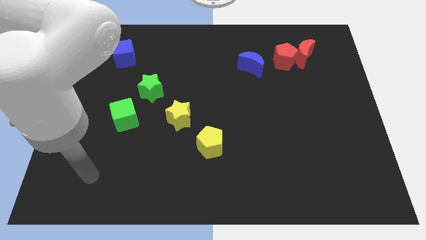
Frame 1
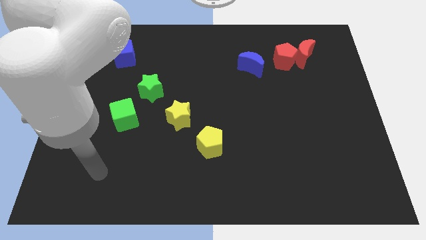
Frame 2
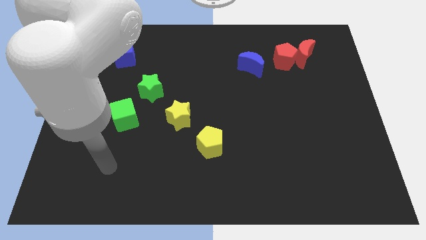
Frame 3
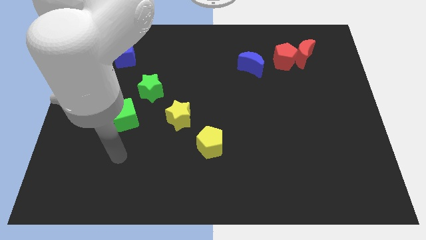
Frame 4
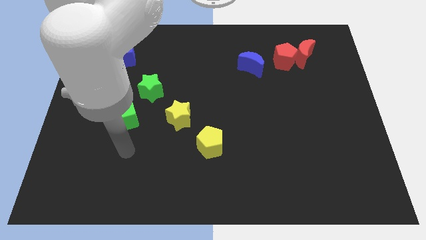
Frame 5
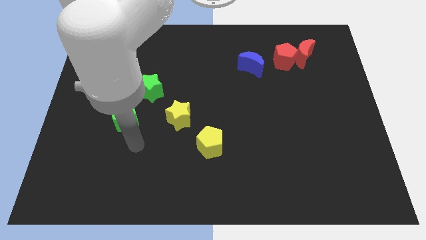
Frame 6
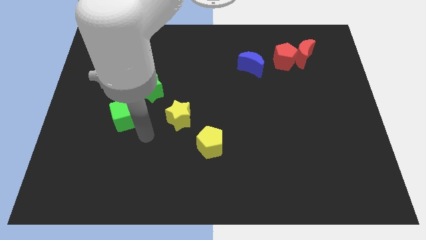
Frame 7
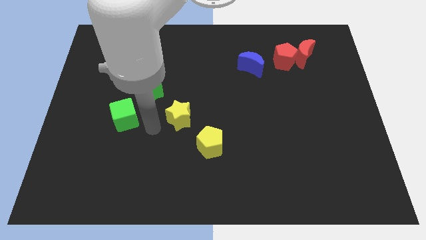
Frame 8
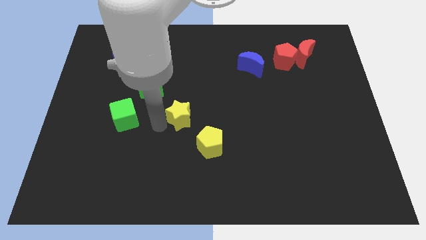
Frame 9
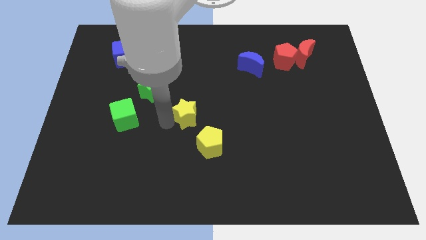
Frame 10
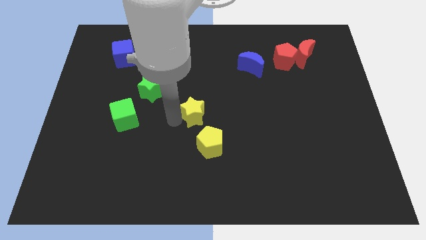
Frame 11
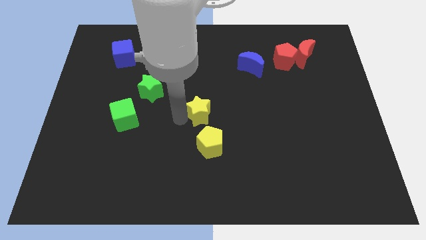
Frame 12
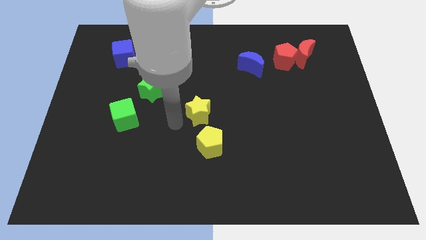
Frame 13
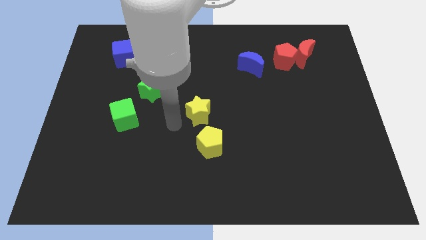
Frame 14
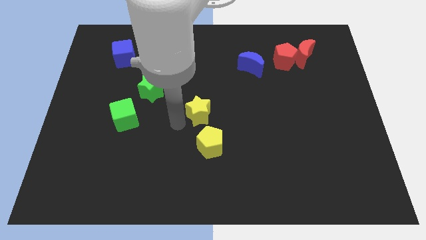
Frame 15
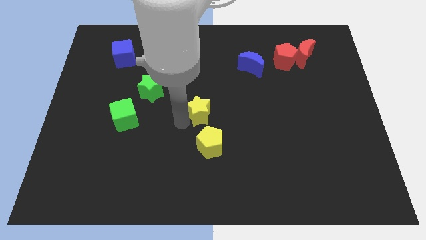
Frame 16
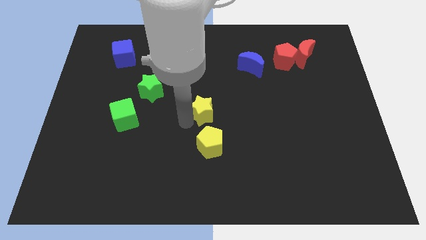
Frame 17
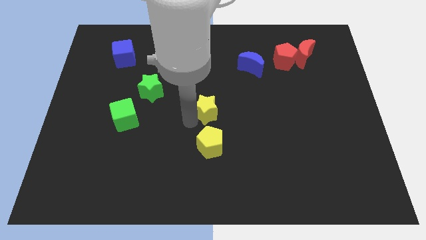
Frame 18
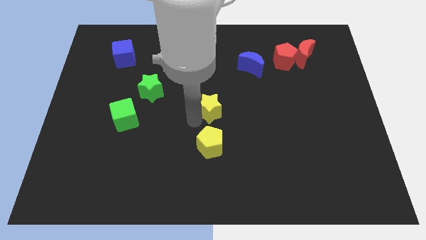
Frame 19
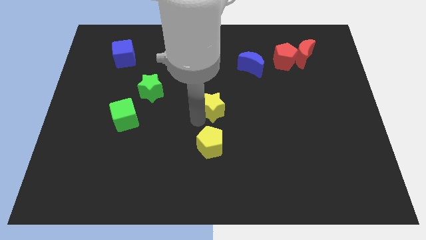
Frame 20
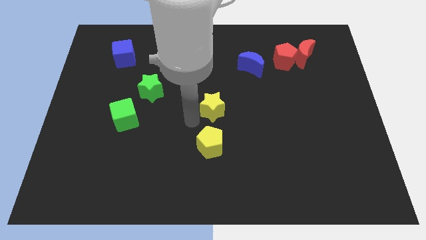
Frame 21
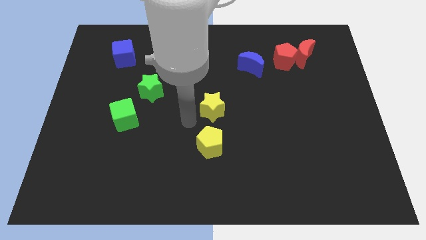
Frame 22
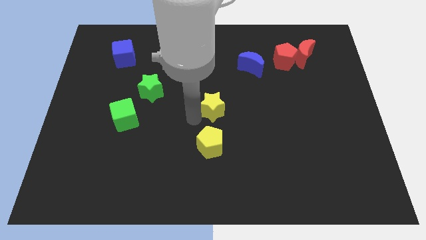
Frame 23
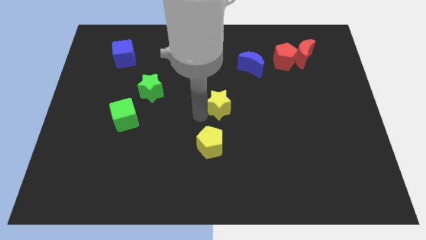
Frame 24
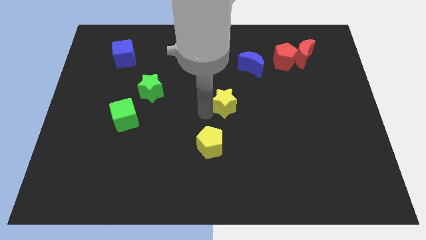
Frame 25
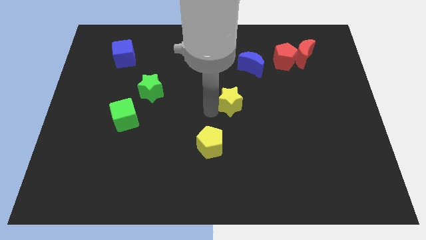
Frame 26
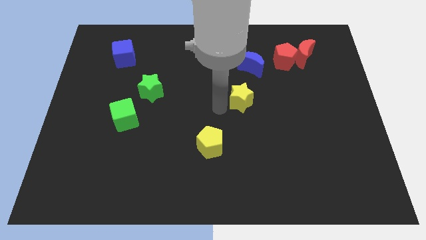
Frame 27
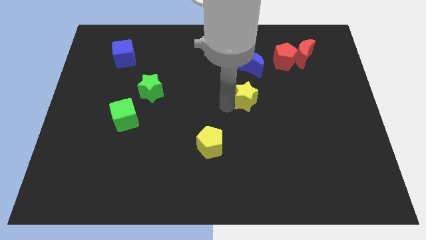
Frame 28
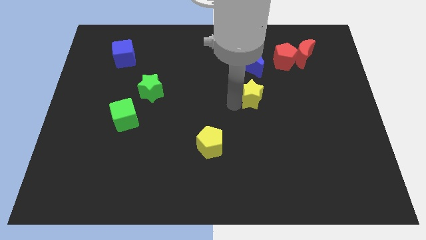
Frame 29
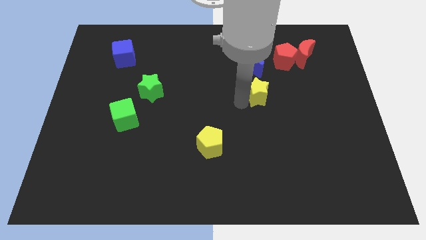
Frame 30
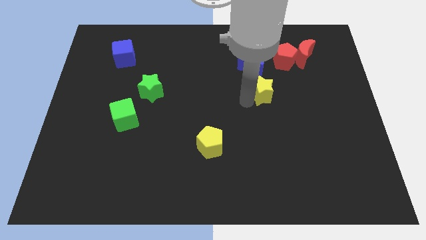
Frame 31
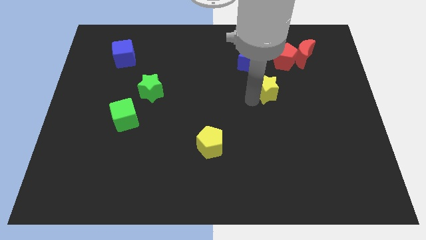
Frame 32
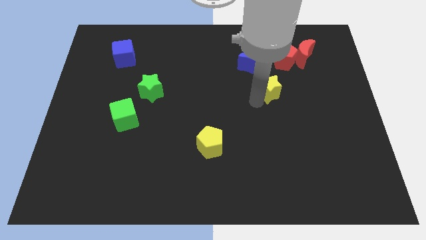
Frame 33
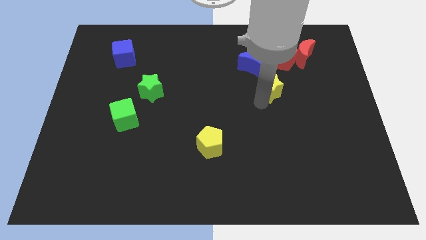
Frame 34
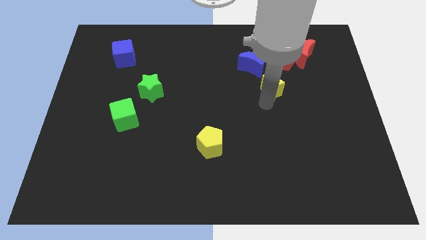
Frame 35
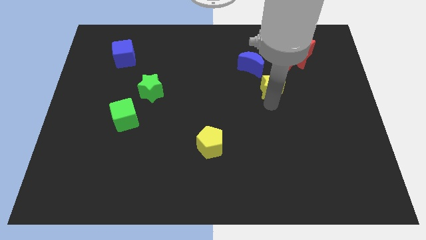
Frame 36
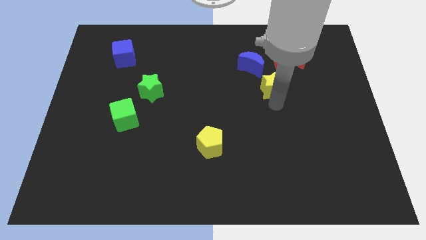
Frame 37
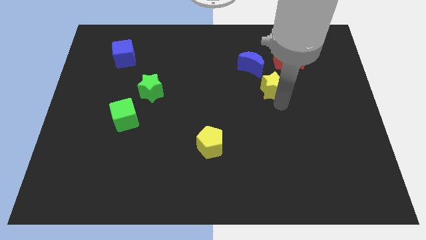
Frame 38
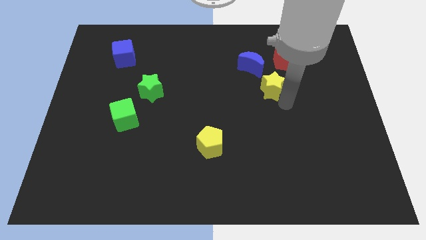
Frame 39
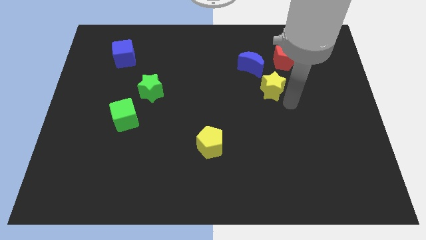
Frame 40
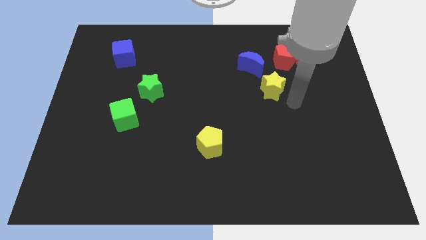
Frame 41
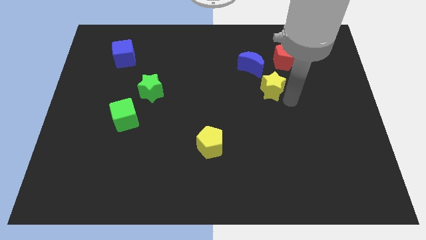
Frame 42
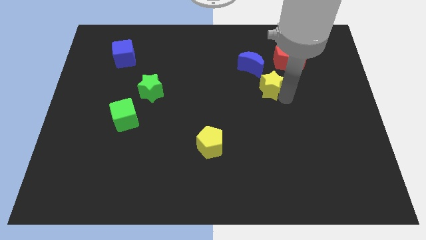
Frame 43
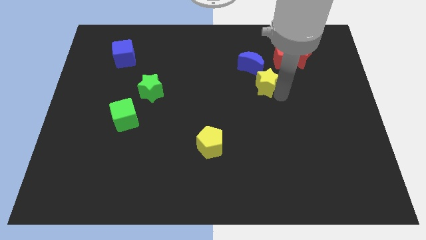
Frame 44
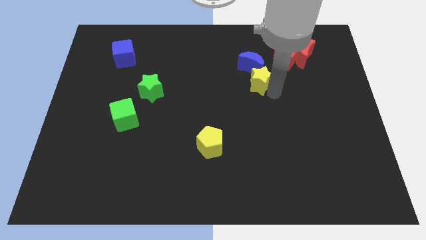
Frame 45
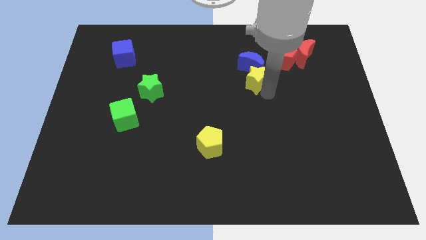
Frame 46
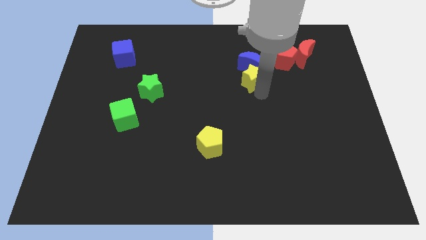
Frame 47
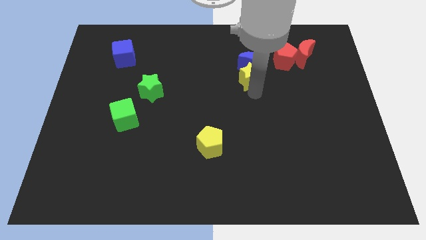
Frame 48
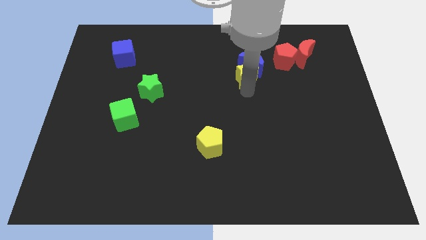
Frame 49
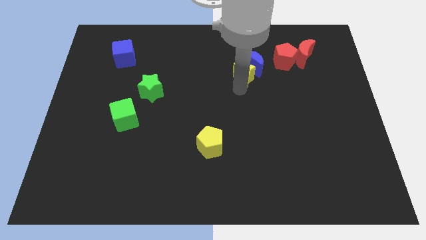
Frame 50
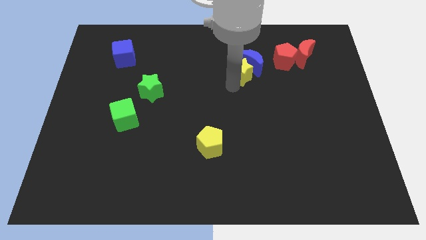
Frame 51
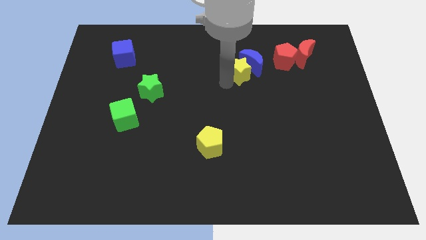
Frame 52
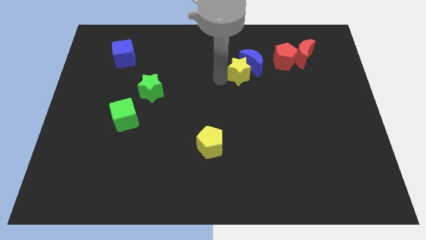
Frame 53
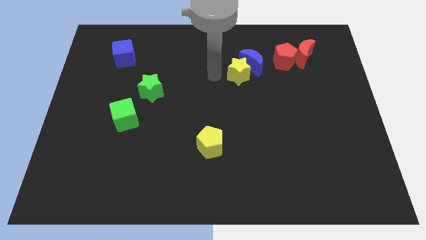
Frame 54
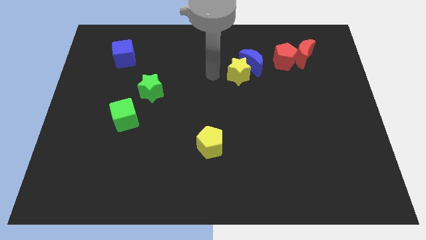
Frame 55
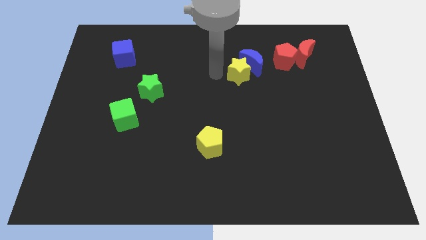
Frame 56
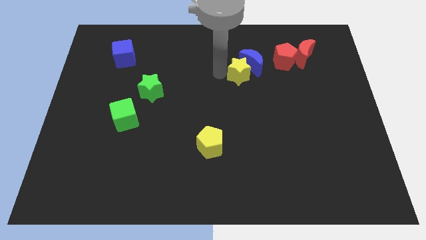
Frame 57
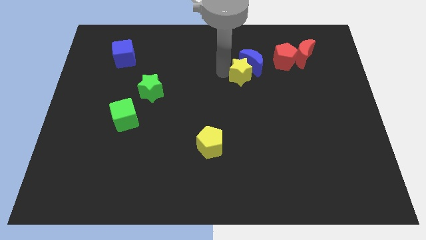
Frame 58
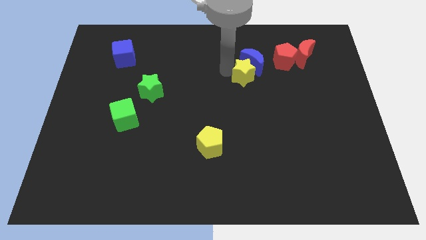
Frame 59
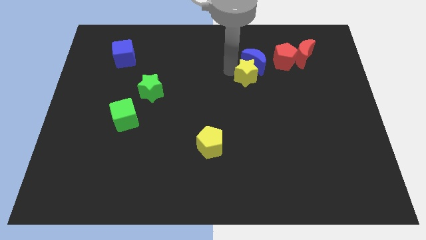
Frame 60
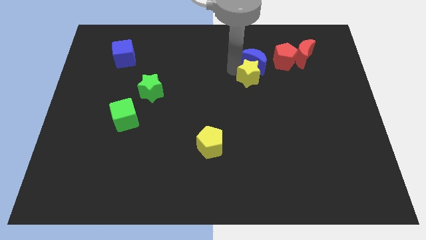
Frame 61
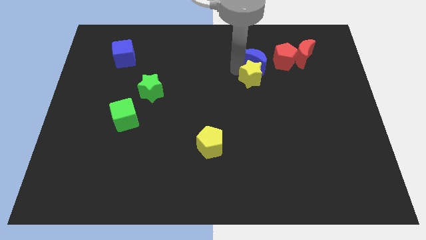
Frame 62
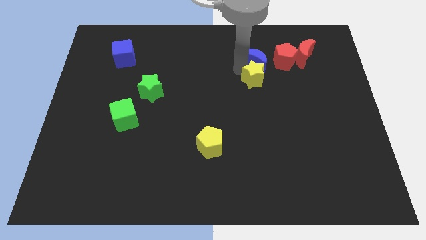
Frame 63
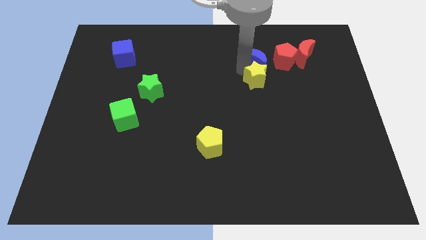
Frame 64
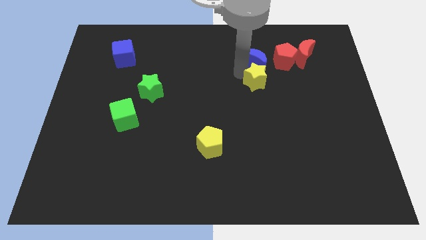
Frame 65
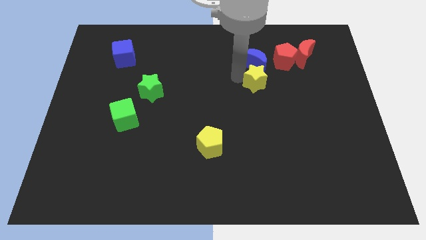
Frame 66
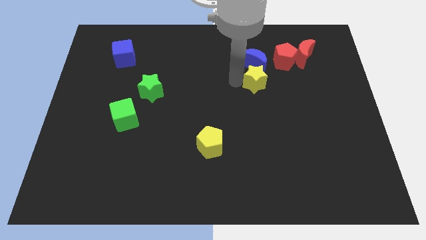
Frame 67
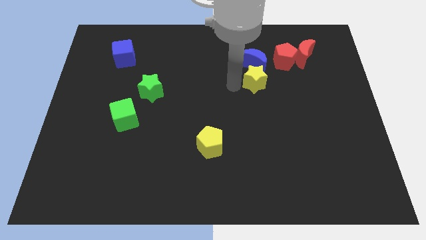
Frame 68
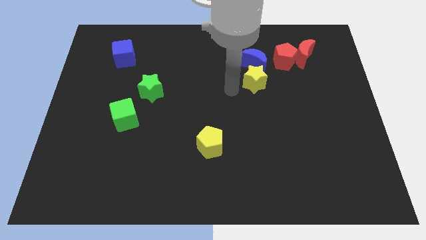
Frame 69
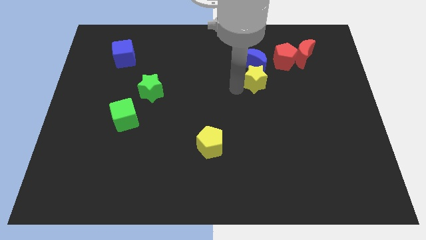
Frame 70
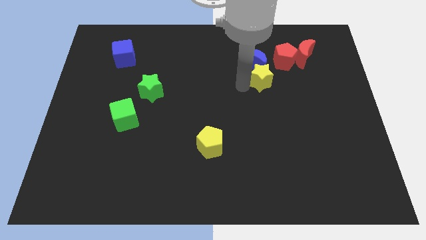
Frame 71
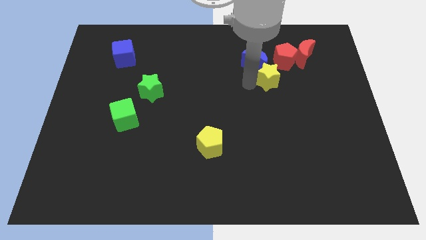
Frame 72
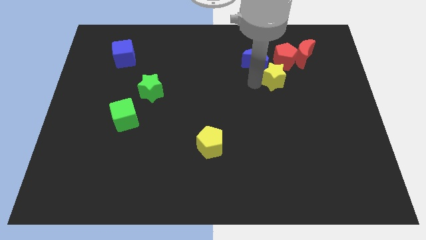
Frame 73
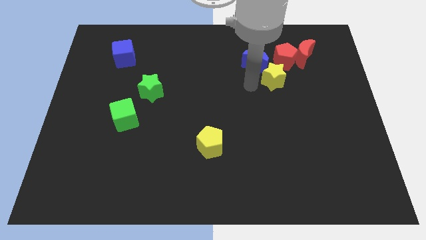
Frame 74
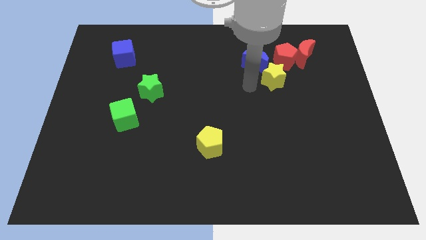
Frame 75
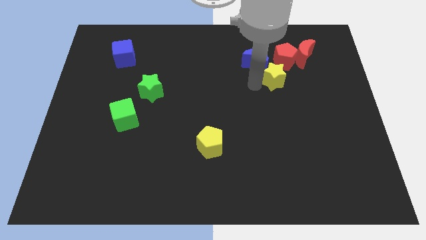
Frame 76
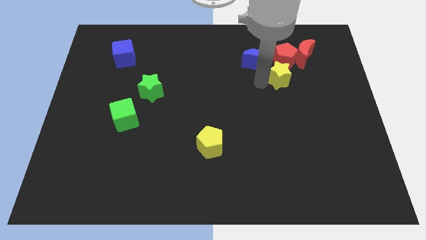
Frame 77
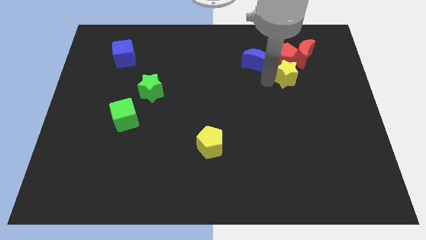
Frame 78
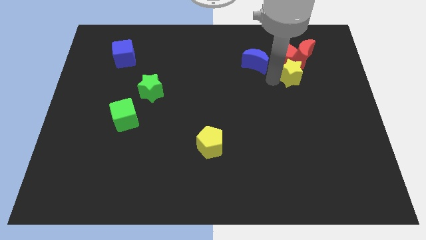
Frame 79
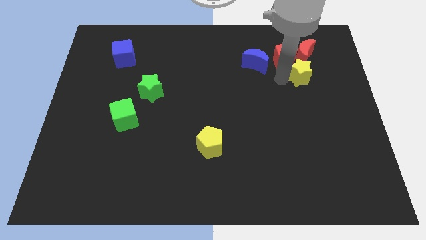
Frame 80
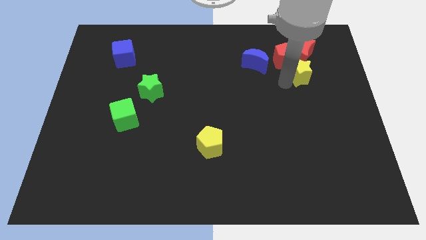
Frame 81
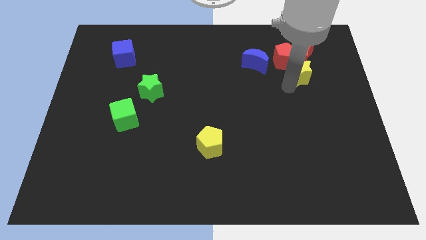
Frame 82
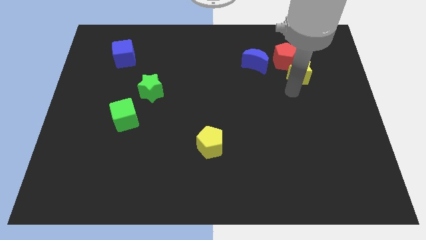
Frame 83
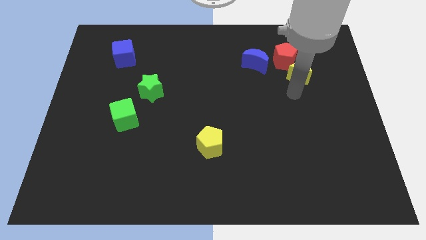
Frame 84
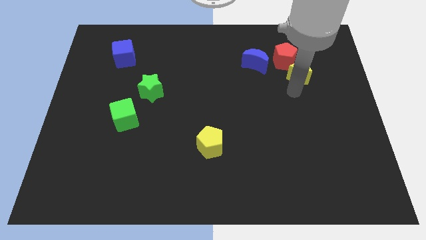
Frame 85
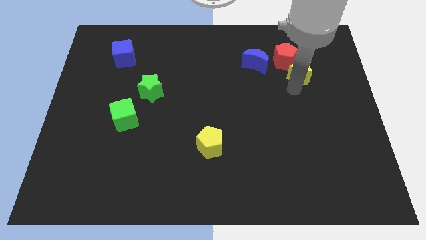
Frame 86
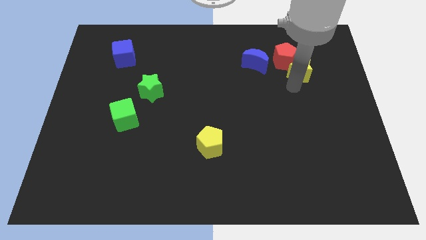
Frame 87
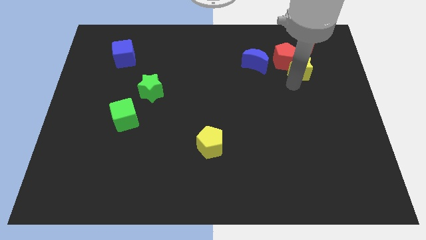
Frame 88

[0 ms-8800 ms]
move the yellow star towards the red moon
